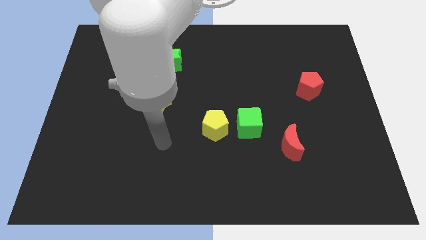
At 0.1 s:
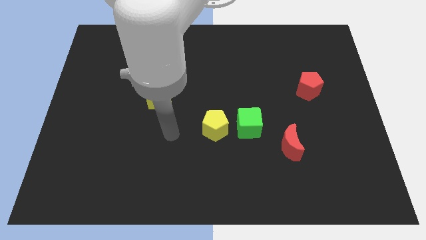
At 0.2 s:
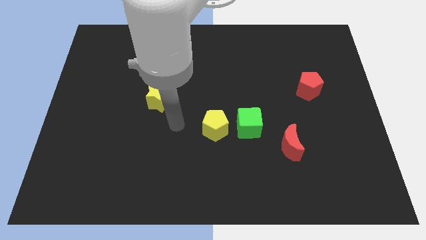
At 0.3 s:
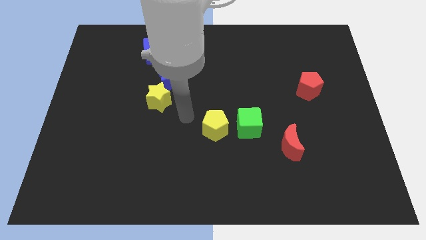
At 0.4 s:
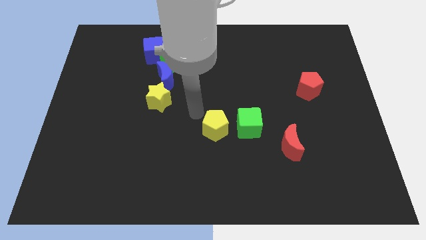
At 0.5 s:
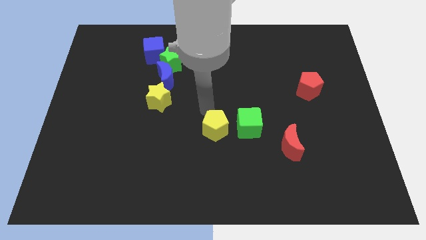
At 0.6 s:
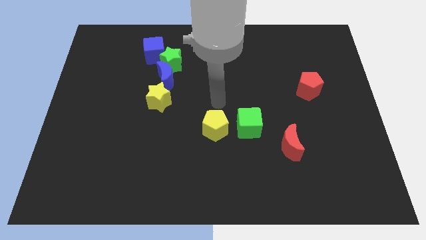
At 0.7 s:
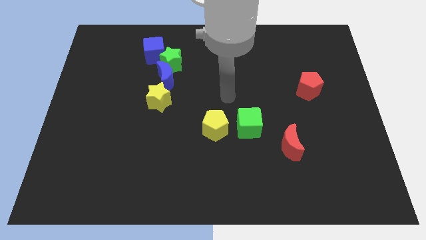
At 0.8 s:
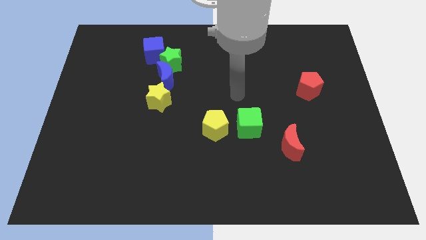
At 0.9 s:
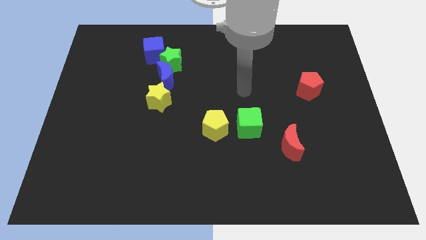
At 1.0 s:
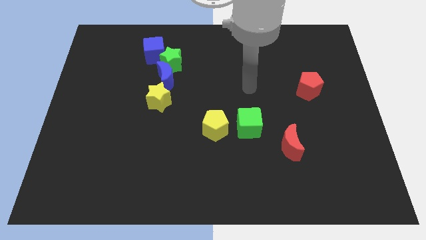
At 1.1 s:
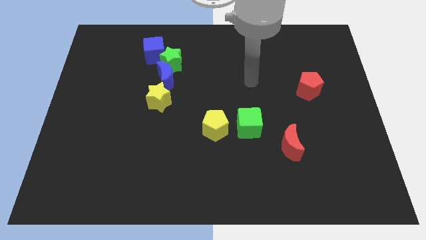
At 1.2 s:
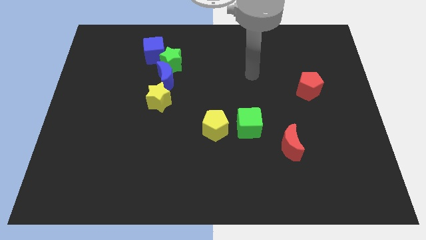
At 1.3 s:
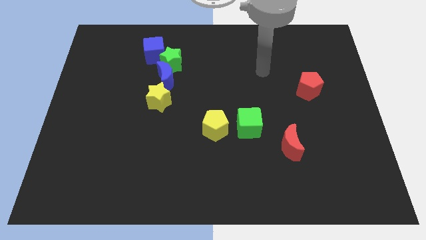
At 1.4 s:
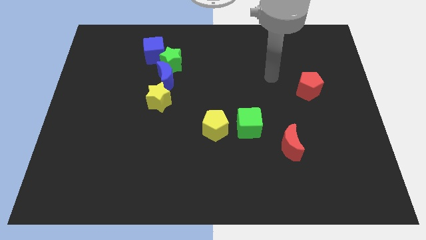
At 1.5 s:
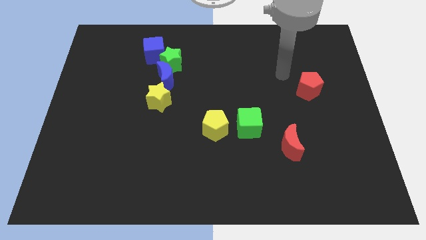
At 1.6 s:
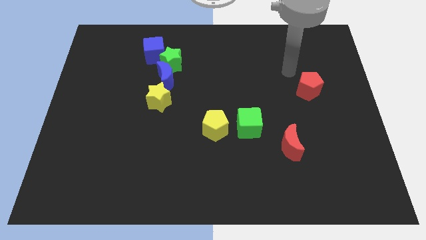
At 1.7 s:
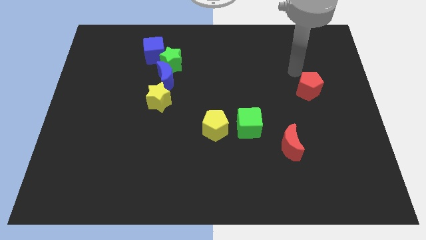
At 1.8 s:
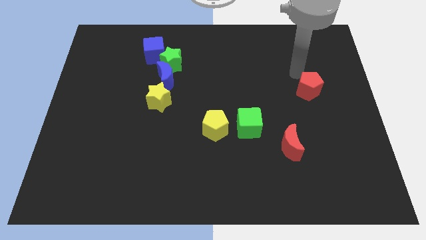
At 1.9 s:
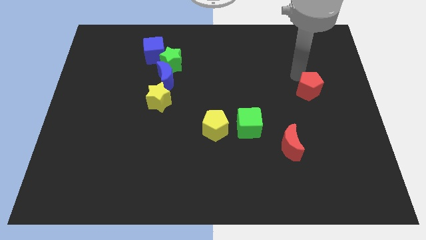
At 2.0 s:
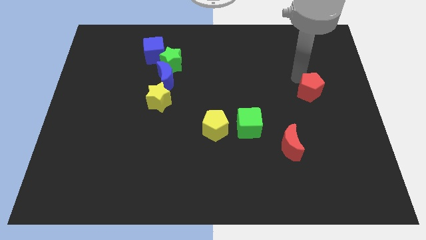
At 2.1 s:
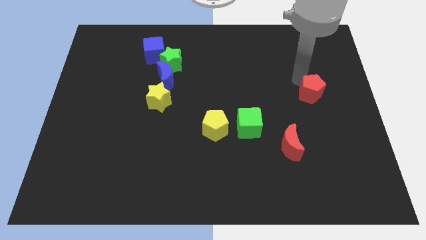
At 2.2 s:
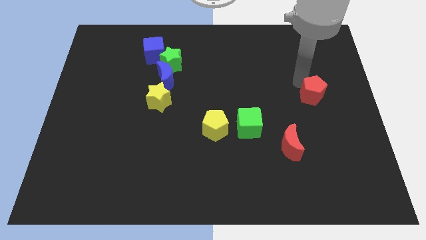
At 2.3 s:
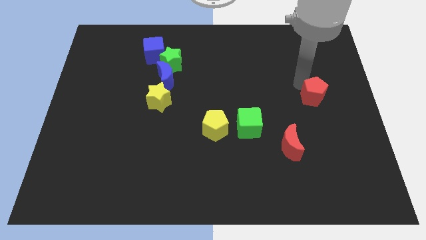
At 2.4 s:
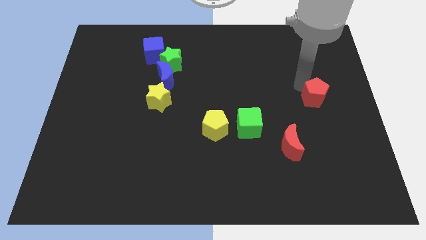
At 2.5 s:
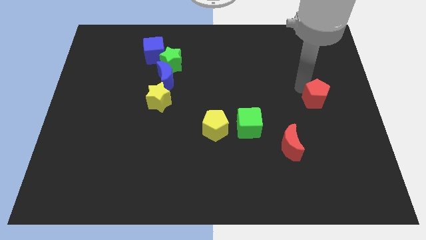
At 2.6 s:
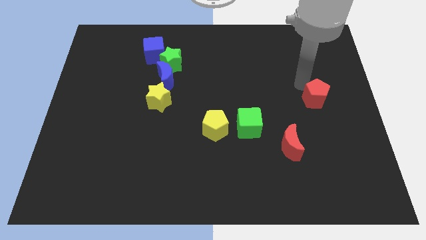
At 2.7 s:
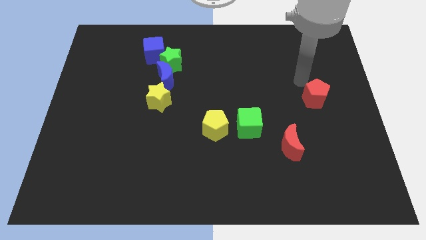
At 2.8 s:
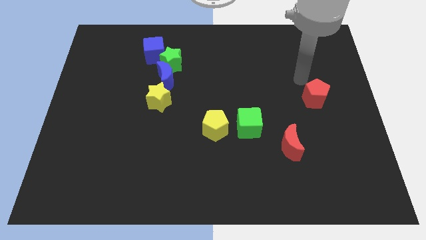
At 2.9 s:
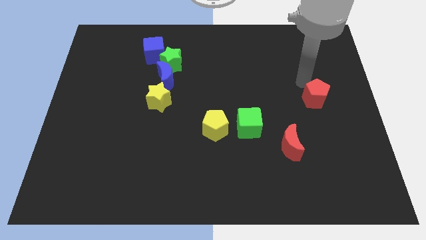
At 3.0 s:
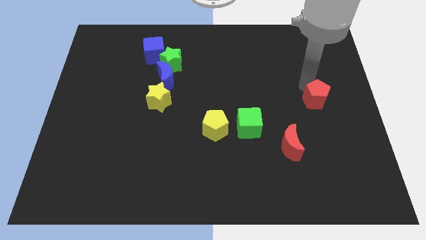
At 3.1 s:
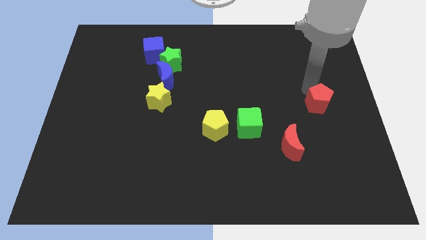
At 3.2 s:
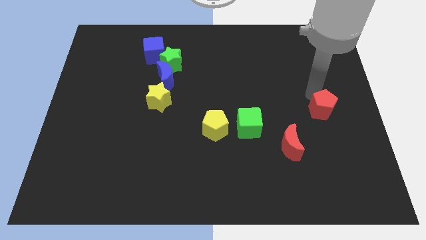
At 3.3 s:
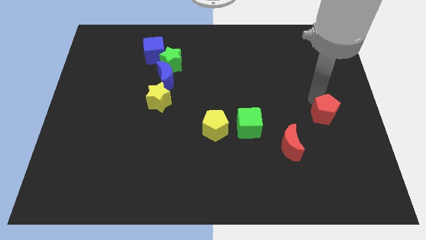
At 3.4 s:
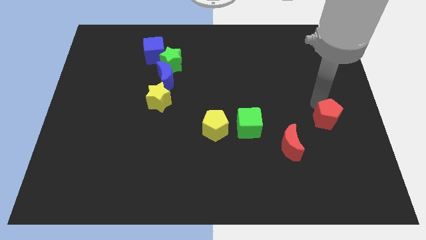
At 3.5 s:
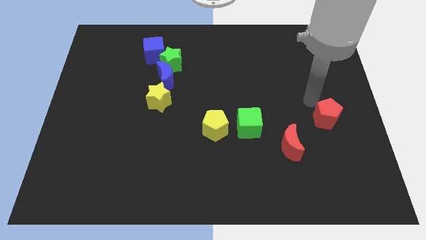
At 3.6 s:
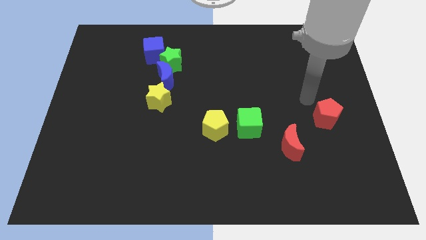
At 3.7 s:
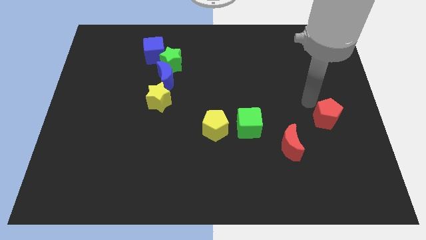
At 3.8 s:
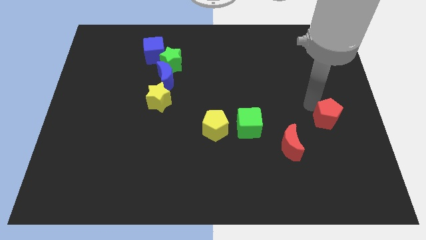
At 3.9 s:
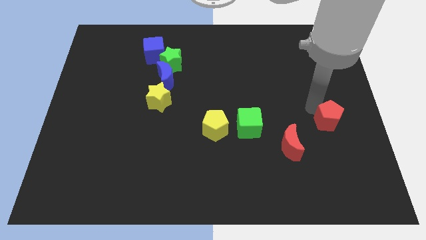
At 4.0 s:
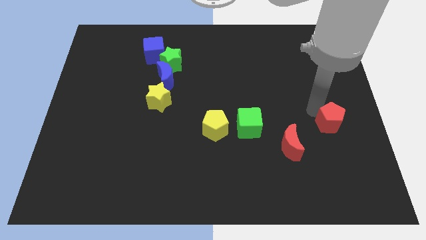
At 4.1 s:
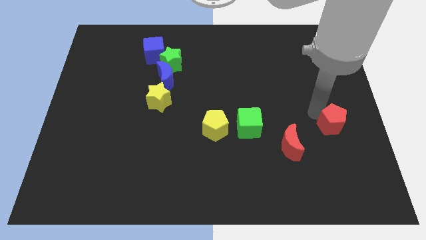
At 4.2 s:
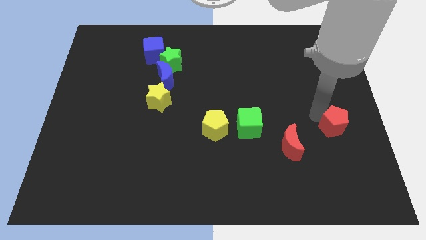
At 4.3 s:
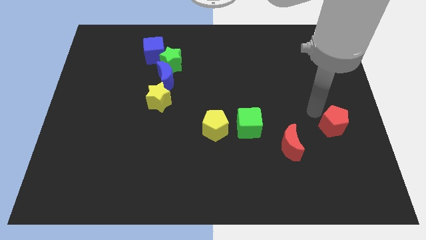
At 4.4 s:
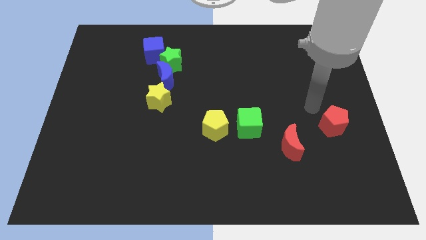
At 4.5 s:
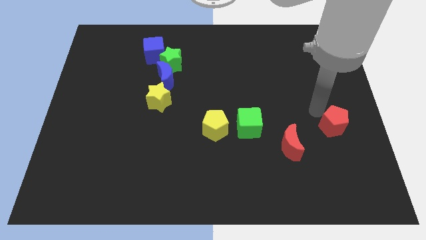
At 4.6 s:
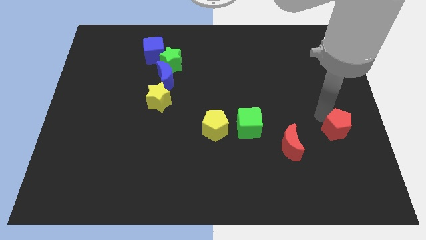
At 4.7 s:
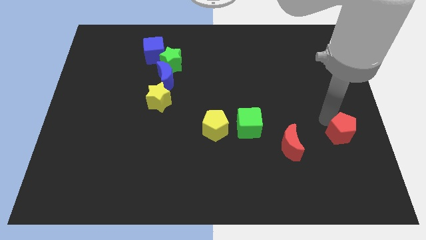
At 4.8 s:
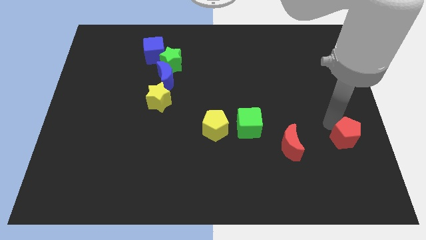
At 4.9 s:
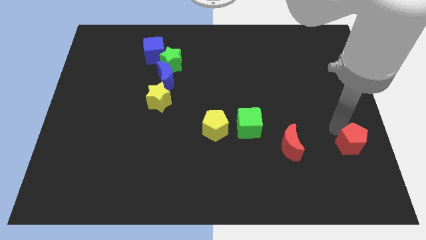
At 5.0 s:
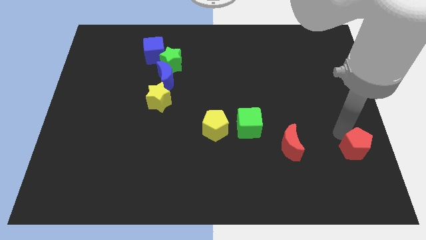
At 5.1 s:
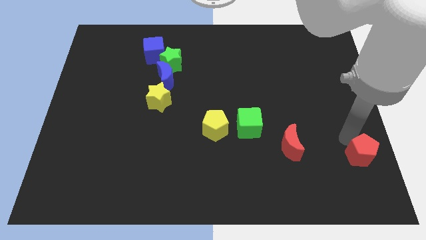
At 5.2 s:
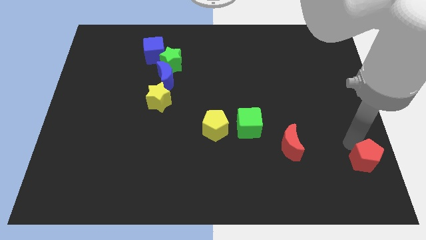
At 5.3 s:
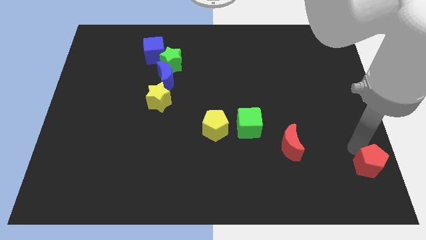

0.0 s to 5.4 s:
put the red pentagon to the bottom right of the board

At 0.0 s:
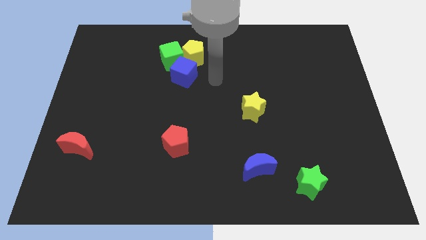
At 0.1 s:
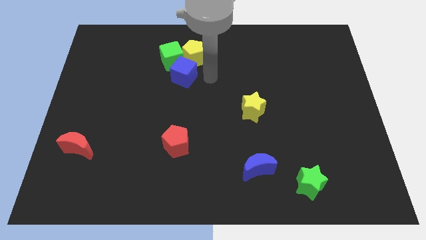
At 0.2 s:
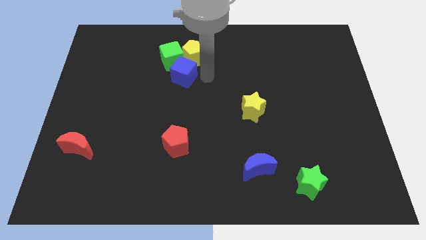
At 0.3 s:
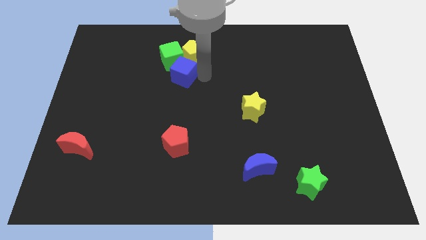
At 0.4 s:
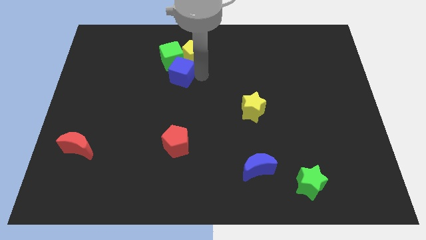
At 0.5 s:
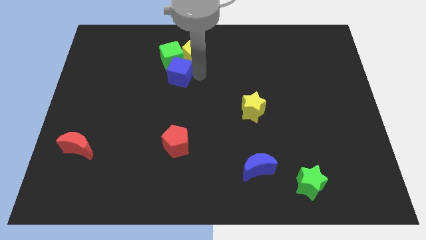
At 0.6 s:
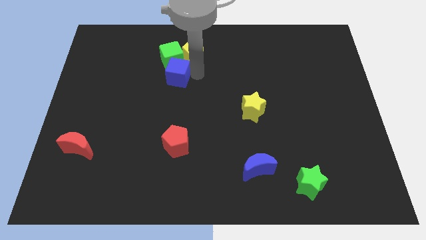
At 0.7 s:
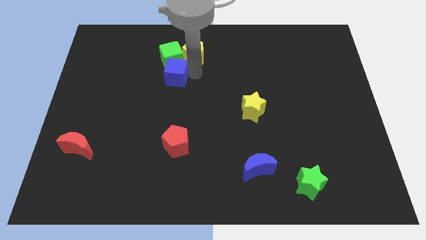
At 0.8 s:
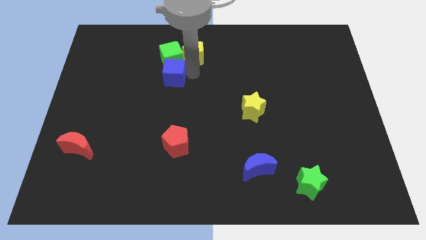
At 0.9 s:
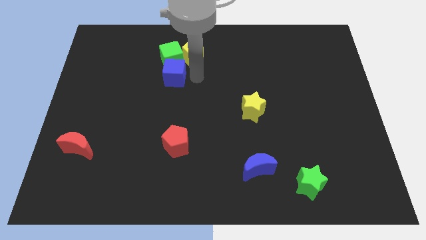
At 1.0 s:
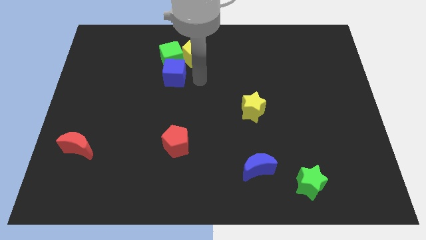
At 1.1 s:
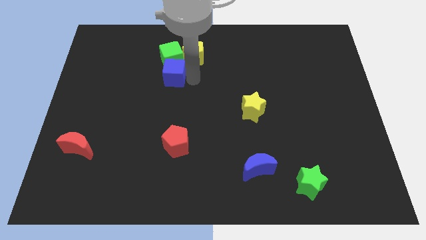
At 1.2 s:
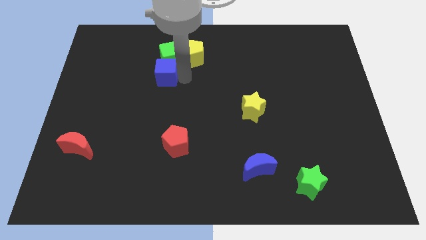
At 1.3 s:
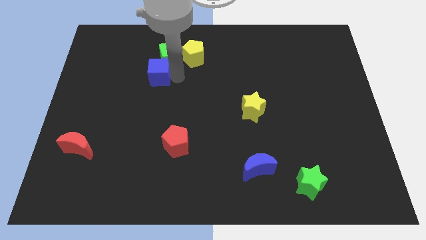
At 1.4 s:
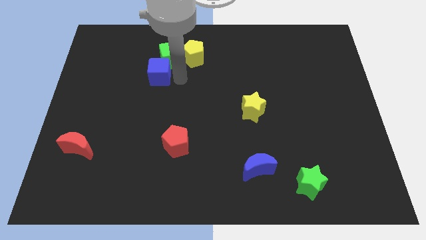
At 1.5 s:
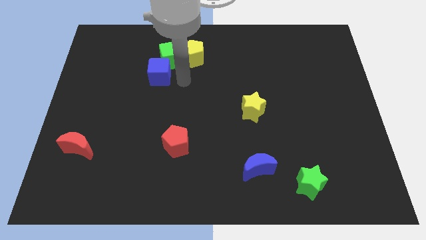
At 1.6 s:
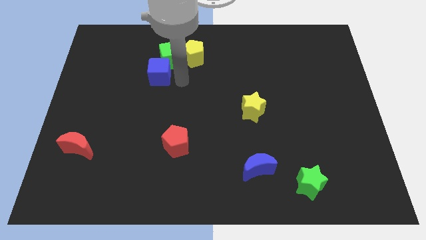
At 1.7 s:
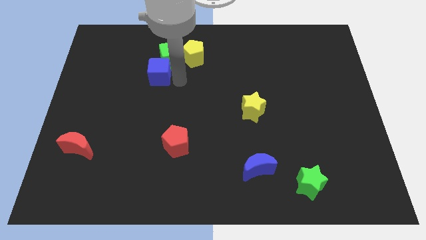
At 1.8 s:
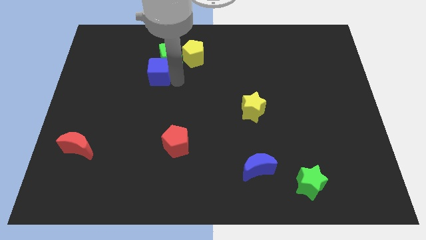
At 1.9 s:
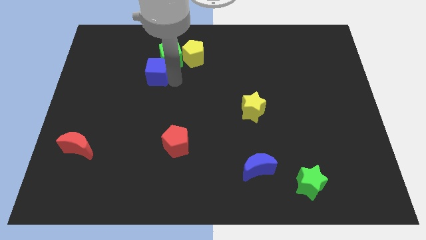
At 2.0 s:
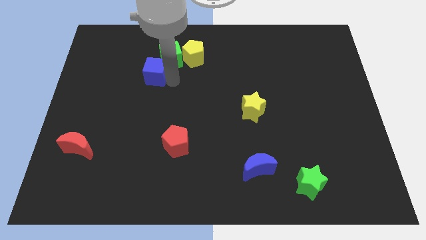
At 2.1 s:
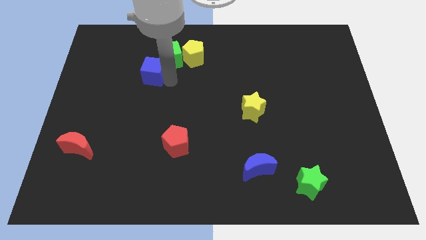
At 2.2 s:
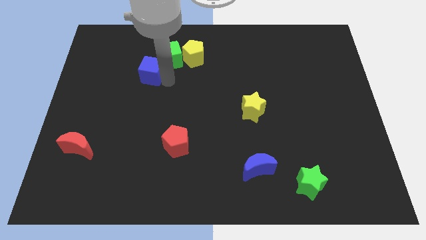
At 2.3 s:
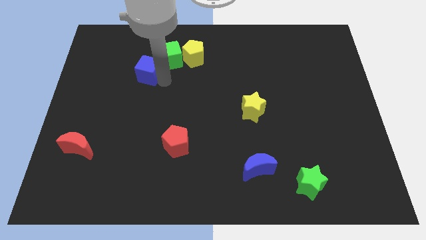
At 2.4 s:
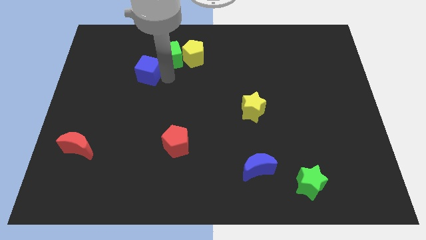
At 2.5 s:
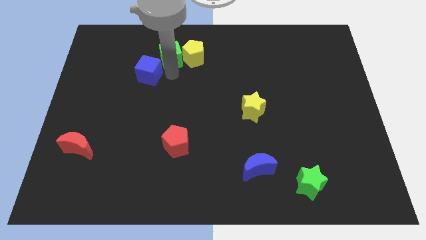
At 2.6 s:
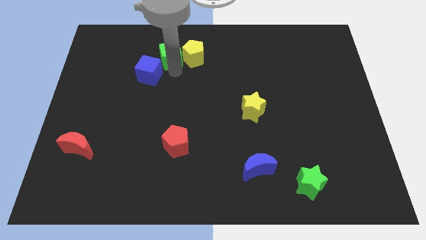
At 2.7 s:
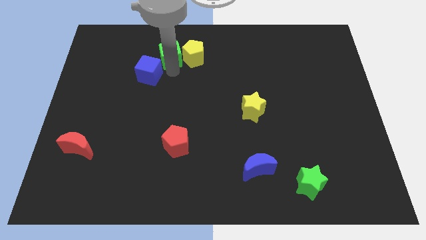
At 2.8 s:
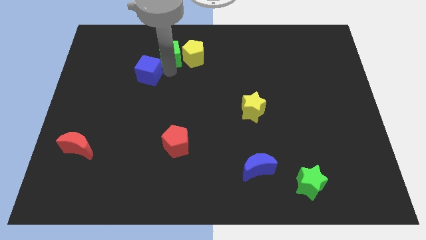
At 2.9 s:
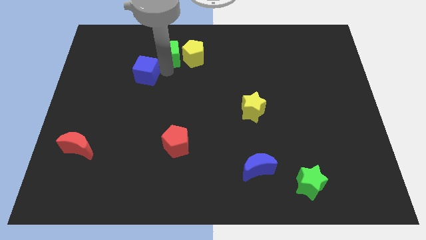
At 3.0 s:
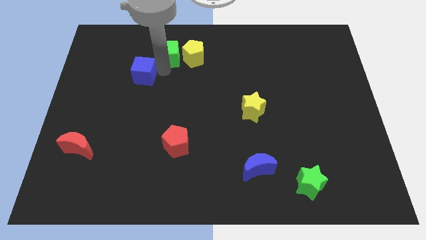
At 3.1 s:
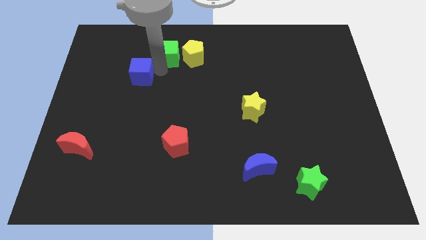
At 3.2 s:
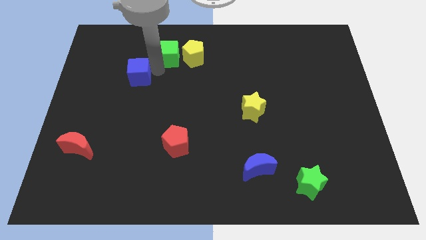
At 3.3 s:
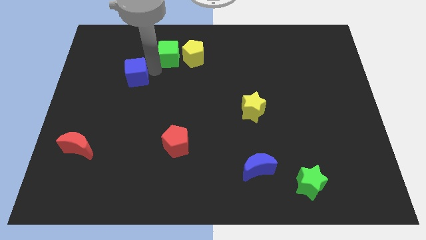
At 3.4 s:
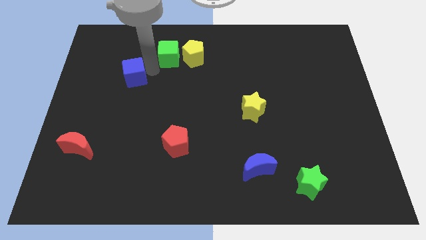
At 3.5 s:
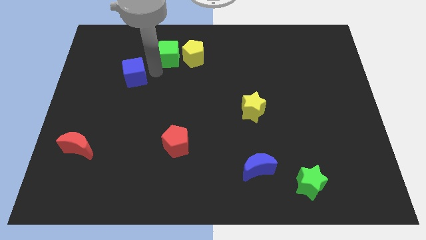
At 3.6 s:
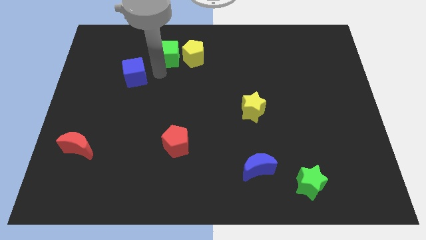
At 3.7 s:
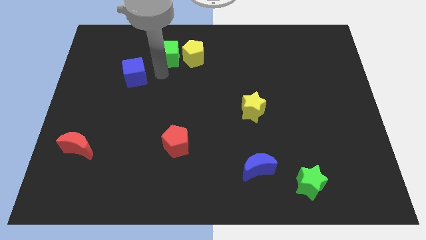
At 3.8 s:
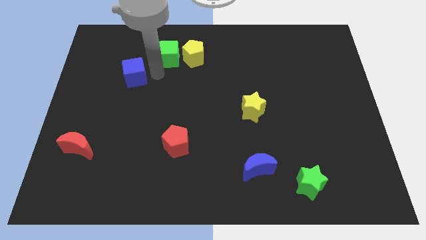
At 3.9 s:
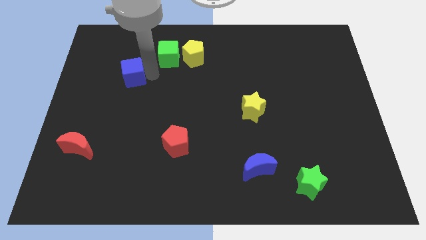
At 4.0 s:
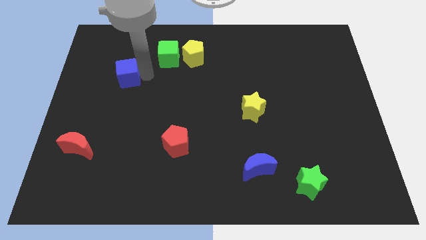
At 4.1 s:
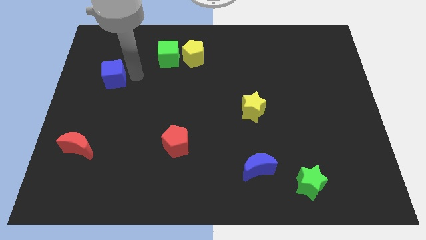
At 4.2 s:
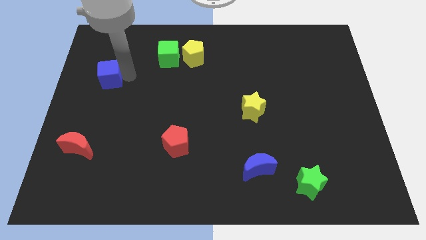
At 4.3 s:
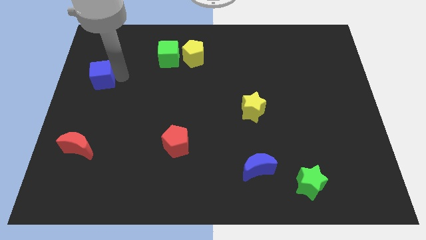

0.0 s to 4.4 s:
slide the blue cube to the left side
